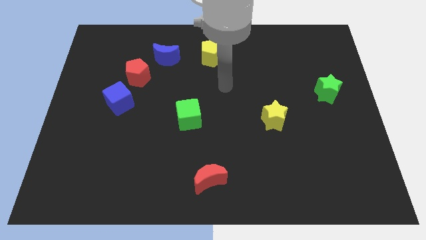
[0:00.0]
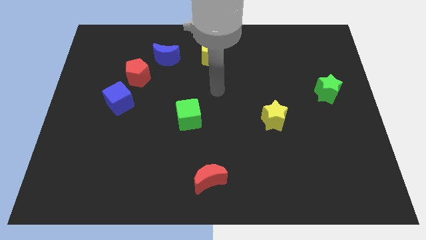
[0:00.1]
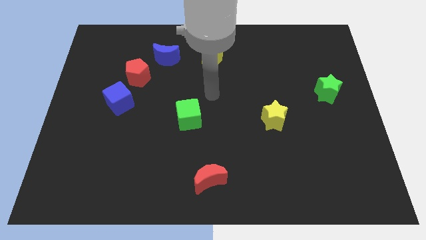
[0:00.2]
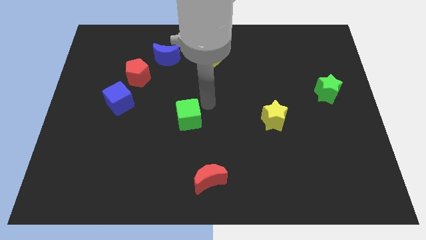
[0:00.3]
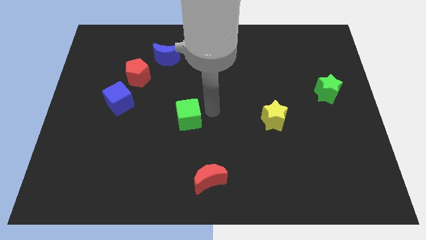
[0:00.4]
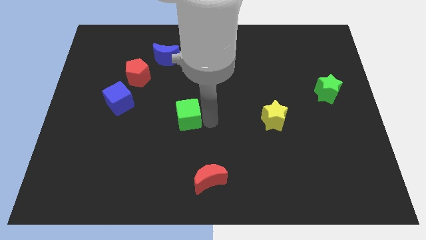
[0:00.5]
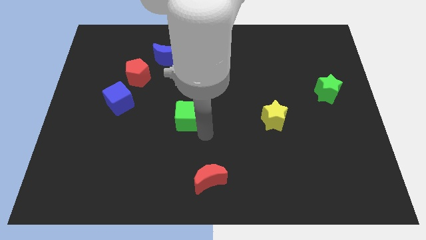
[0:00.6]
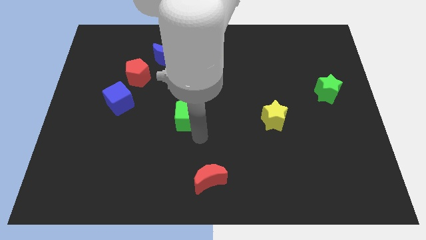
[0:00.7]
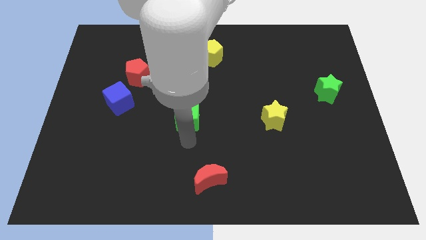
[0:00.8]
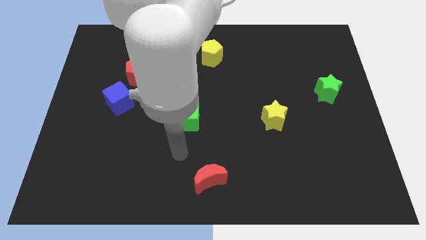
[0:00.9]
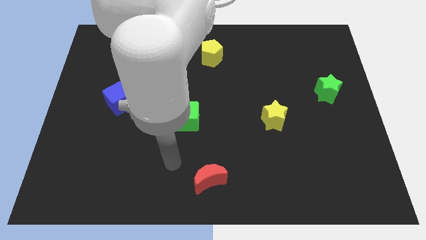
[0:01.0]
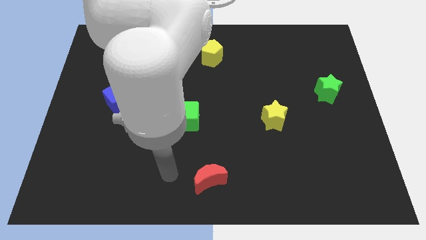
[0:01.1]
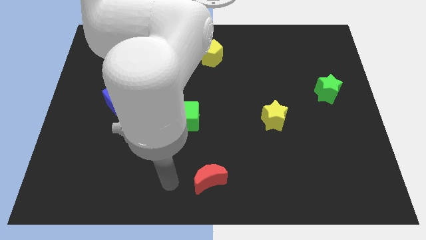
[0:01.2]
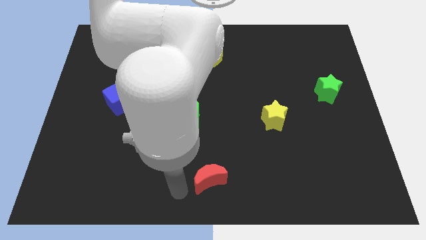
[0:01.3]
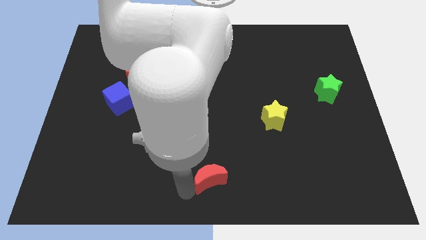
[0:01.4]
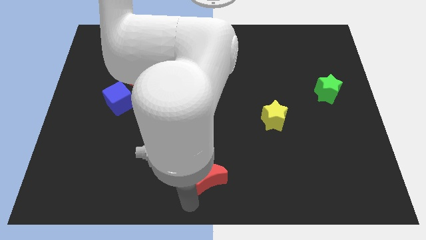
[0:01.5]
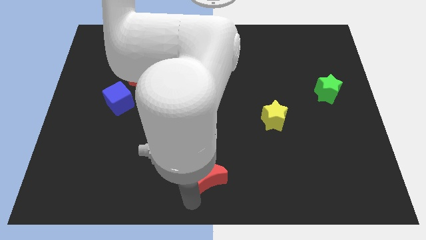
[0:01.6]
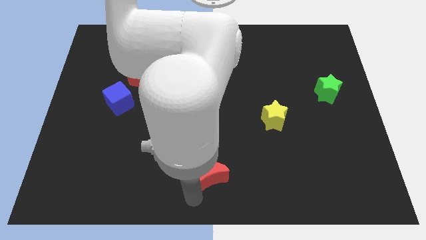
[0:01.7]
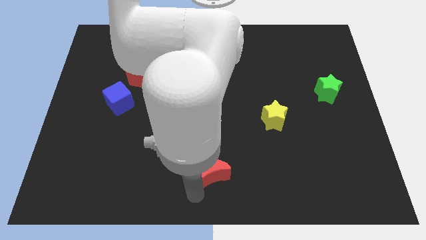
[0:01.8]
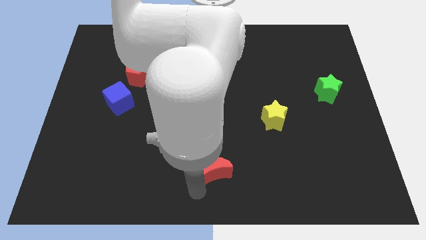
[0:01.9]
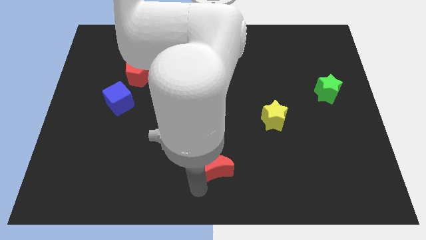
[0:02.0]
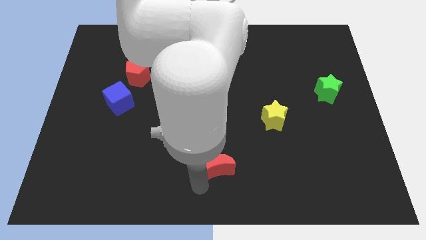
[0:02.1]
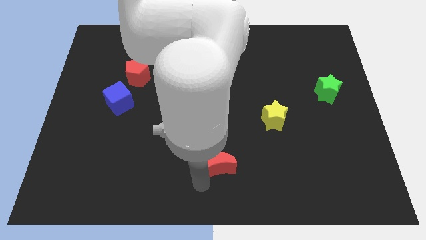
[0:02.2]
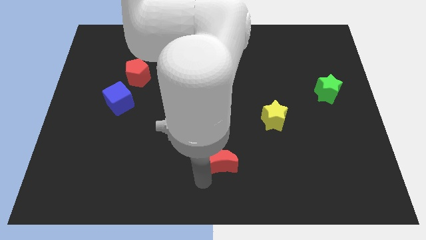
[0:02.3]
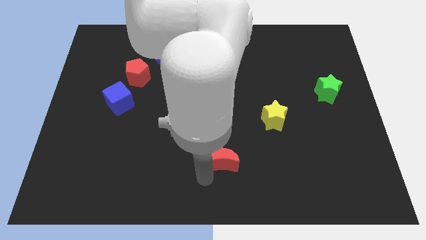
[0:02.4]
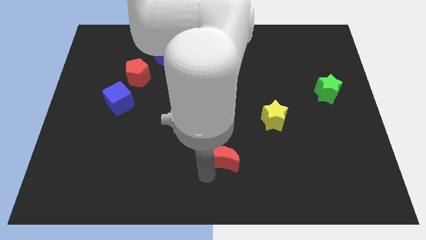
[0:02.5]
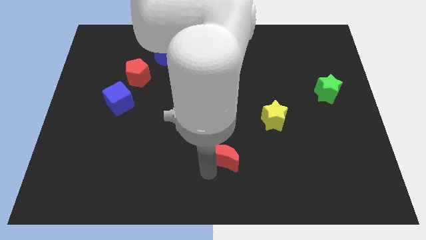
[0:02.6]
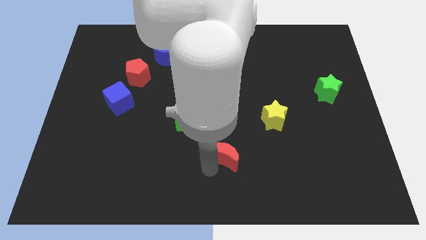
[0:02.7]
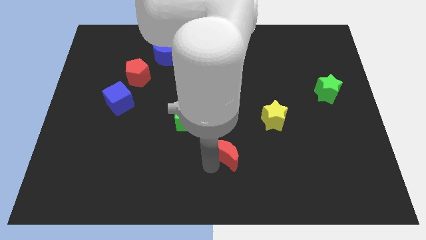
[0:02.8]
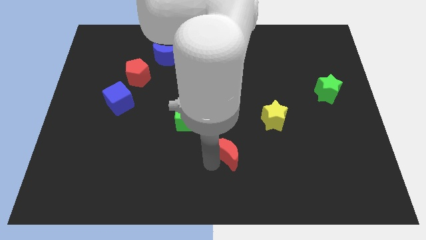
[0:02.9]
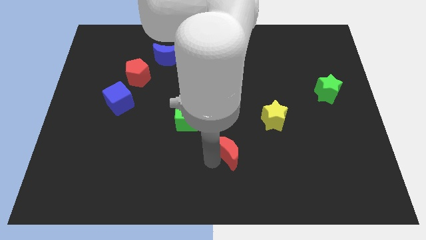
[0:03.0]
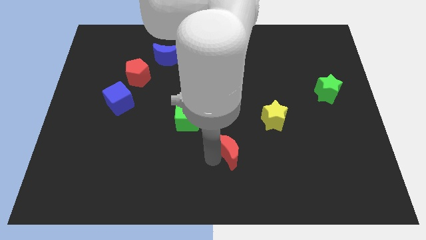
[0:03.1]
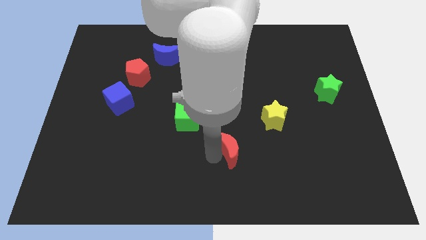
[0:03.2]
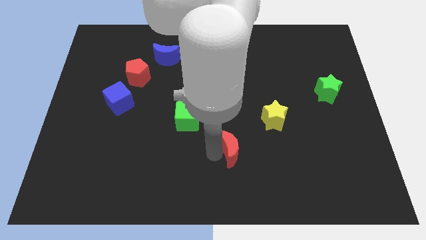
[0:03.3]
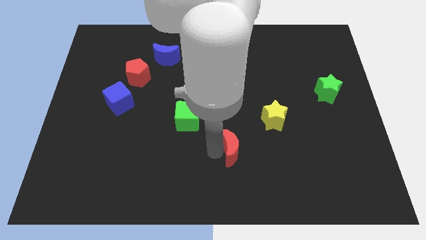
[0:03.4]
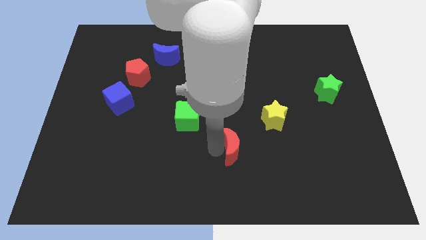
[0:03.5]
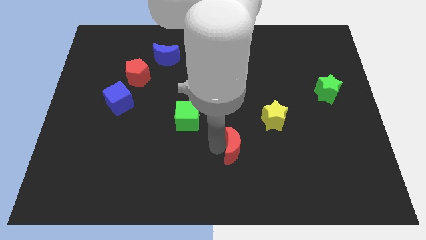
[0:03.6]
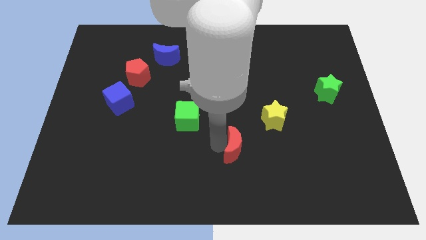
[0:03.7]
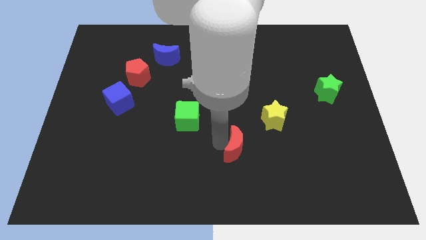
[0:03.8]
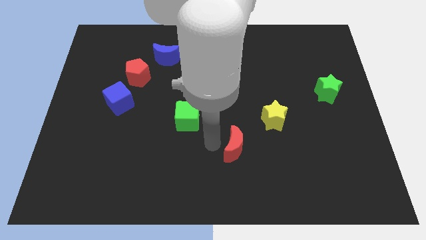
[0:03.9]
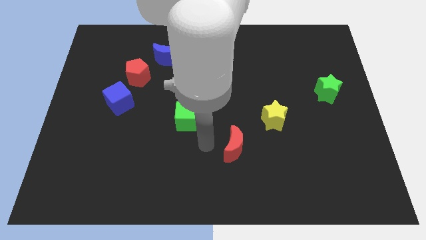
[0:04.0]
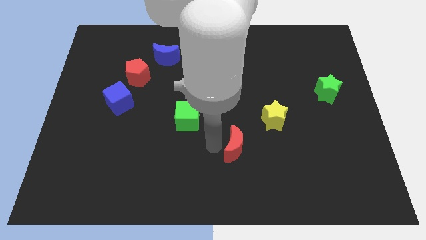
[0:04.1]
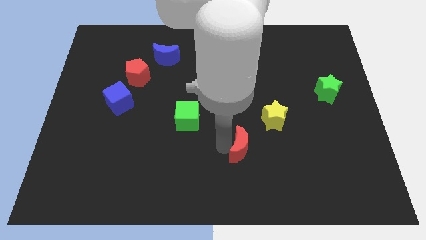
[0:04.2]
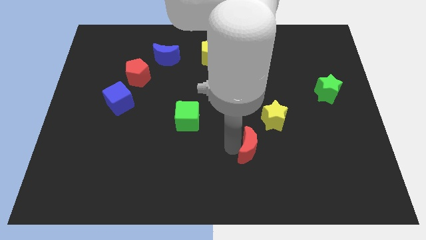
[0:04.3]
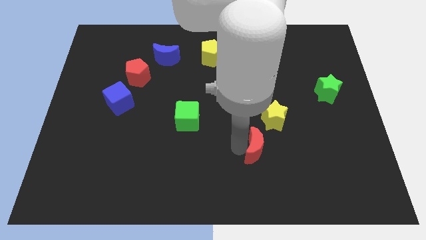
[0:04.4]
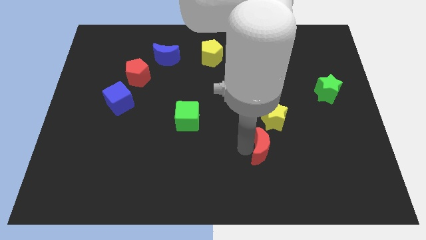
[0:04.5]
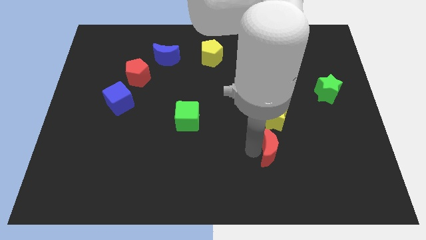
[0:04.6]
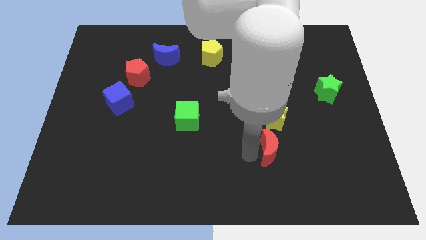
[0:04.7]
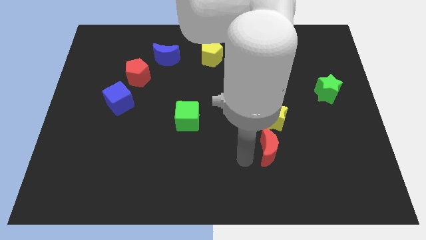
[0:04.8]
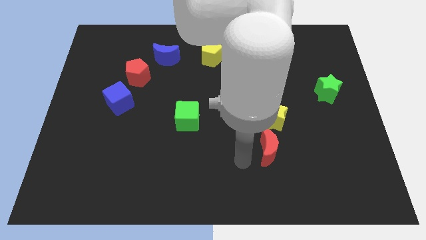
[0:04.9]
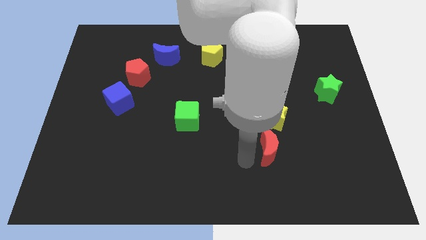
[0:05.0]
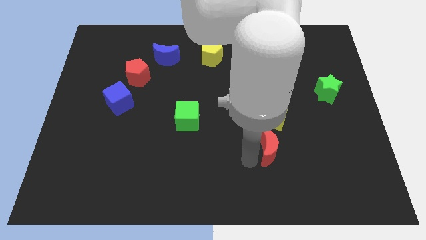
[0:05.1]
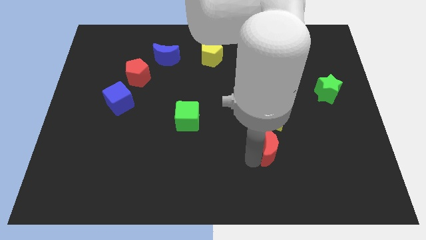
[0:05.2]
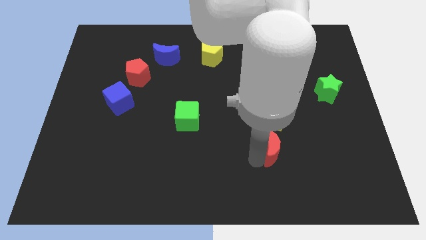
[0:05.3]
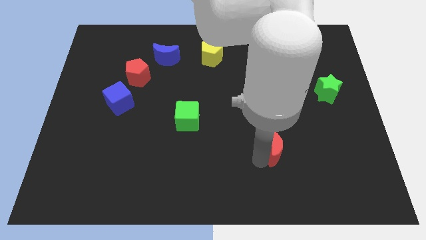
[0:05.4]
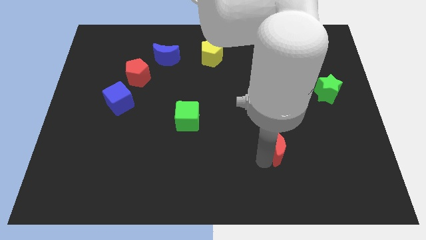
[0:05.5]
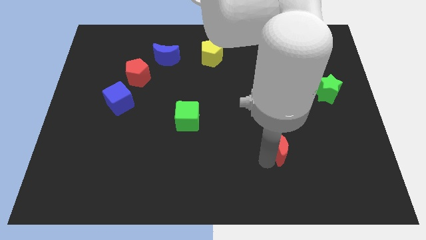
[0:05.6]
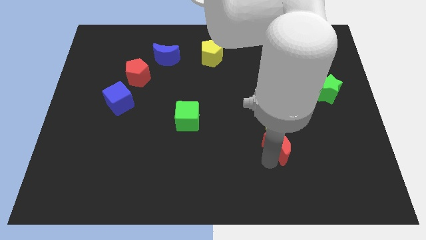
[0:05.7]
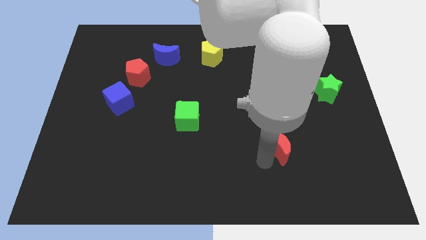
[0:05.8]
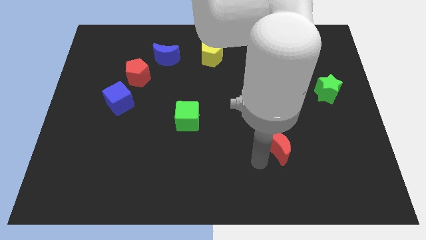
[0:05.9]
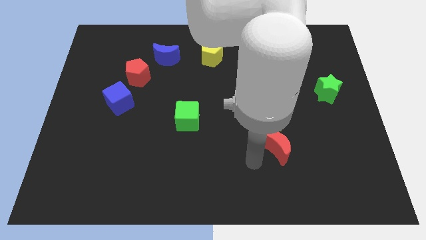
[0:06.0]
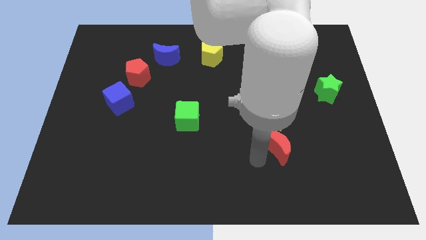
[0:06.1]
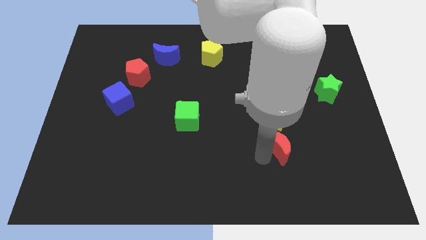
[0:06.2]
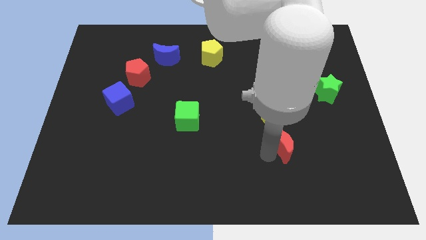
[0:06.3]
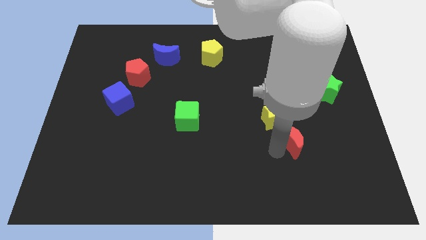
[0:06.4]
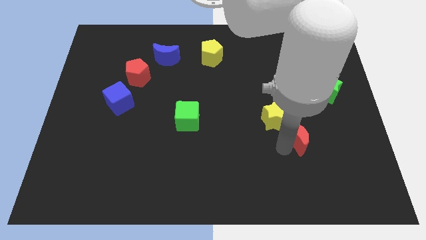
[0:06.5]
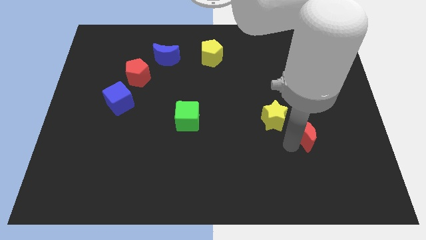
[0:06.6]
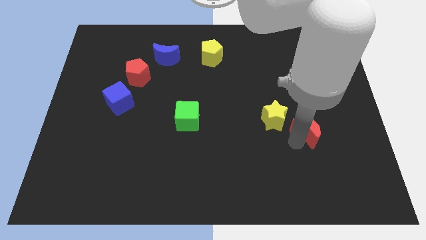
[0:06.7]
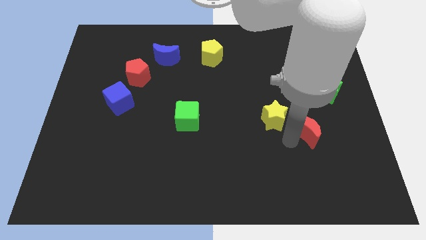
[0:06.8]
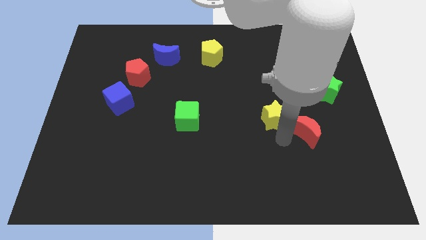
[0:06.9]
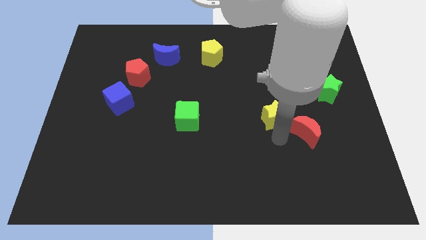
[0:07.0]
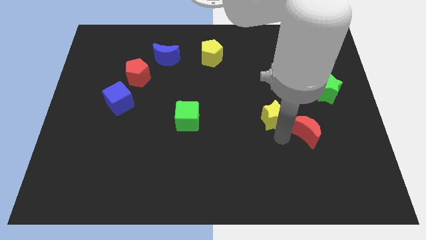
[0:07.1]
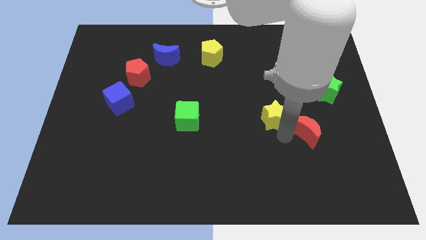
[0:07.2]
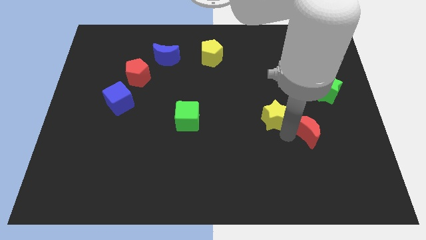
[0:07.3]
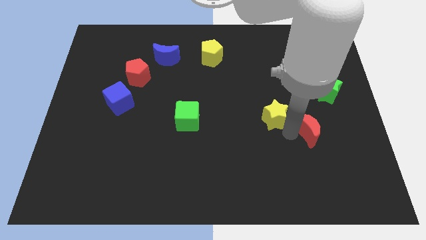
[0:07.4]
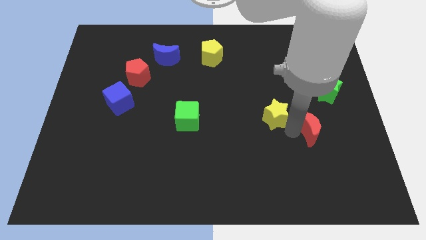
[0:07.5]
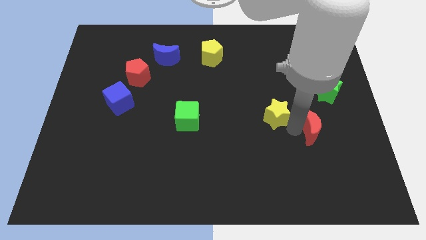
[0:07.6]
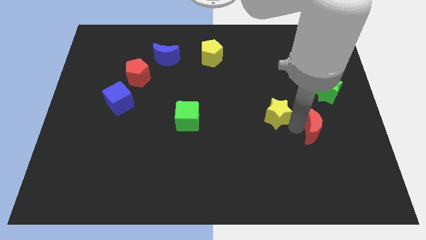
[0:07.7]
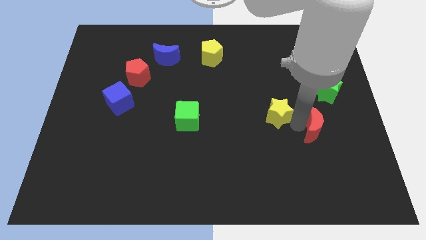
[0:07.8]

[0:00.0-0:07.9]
push the red moon to the bottom of the green star
